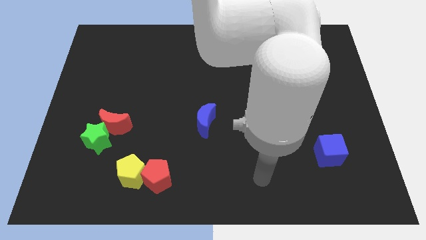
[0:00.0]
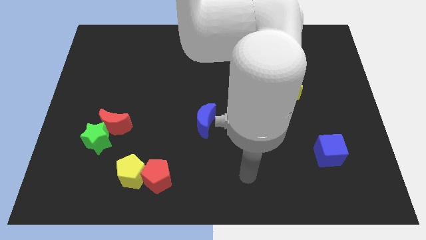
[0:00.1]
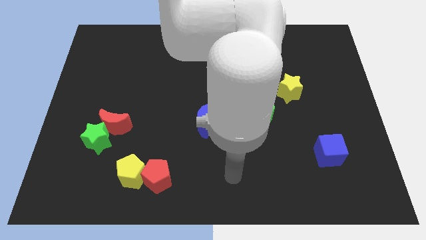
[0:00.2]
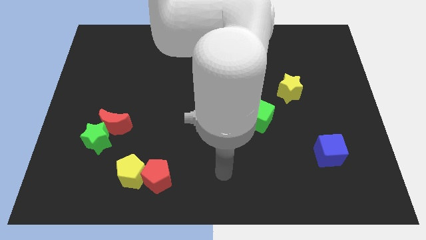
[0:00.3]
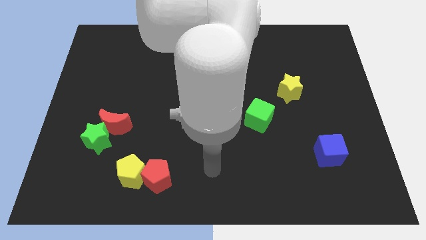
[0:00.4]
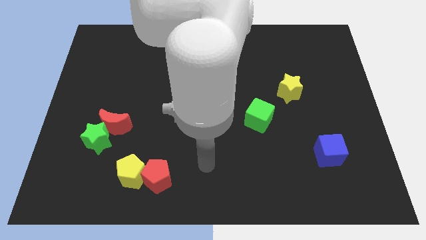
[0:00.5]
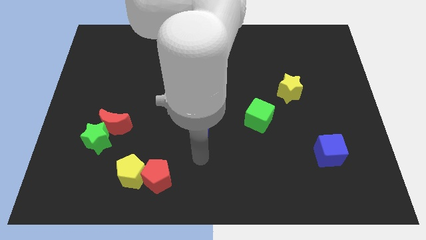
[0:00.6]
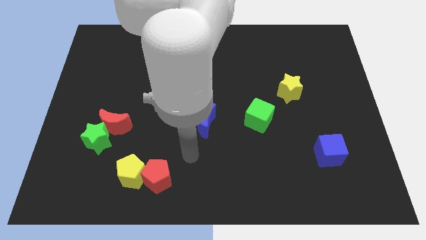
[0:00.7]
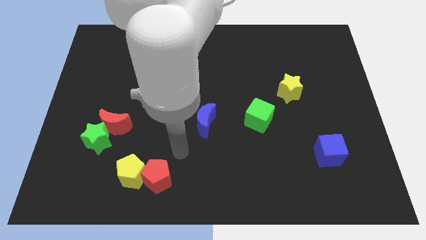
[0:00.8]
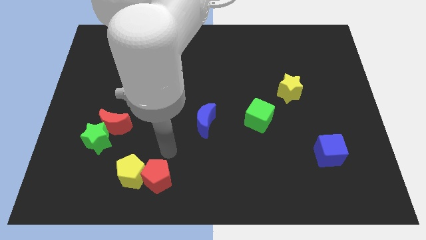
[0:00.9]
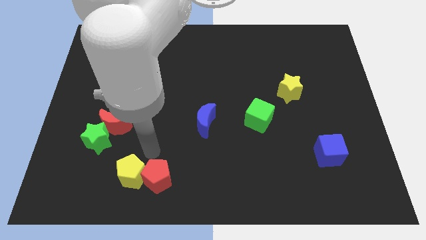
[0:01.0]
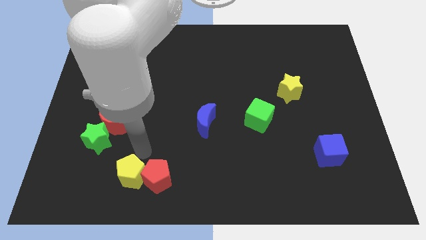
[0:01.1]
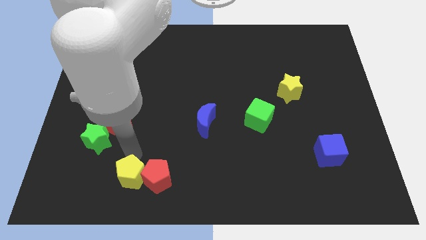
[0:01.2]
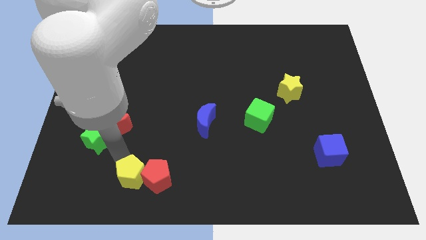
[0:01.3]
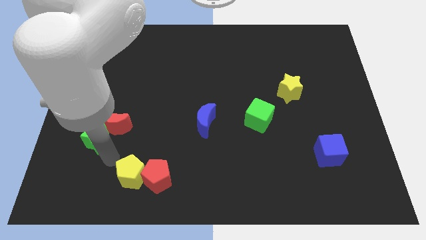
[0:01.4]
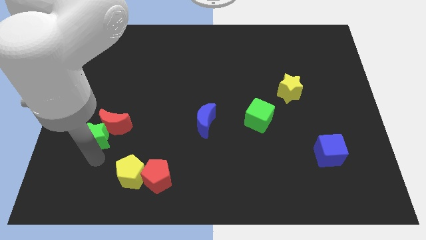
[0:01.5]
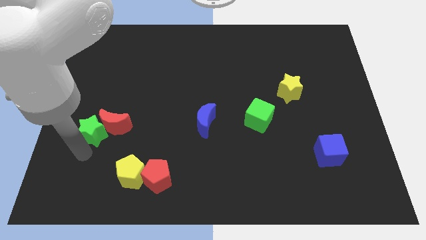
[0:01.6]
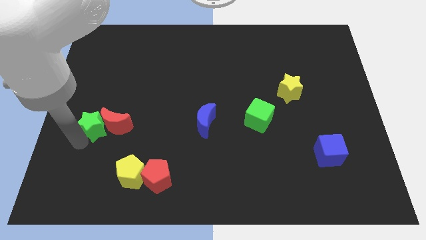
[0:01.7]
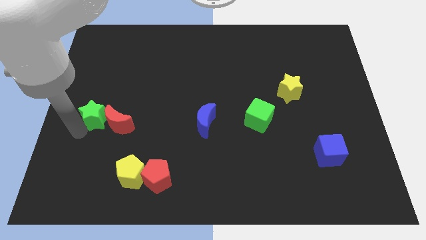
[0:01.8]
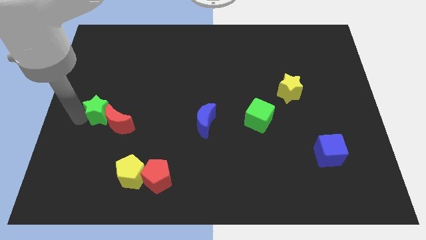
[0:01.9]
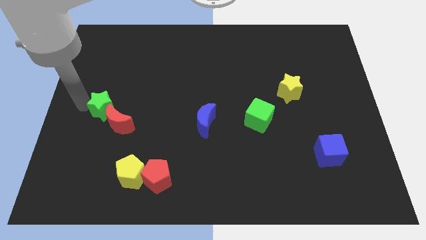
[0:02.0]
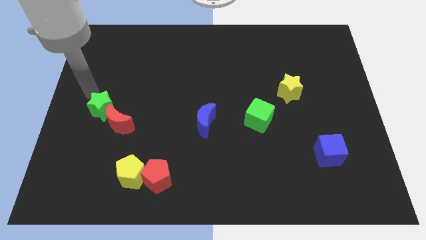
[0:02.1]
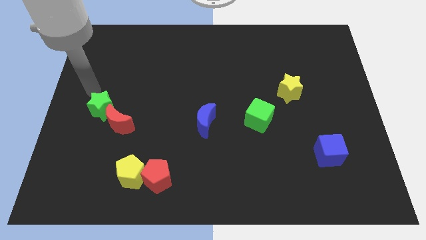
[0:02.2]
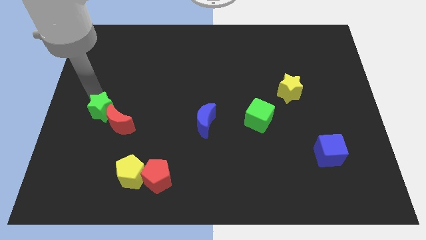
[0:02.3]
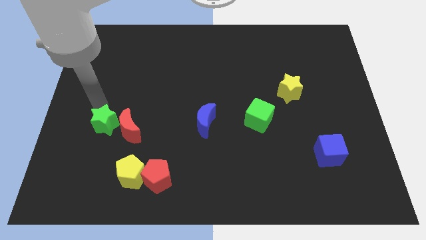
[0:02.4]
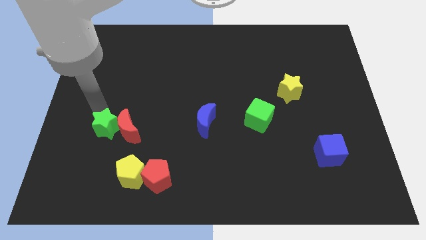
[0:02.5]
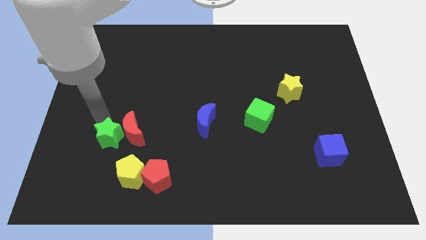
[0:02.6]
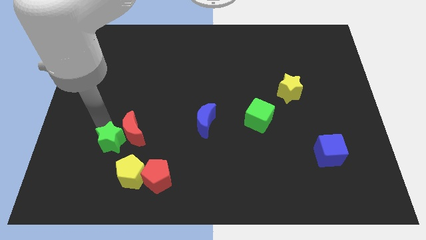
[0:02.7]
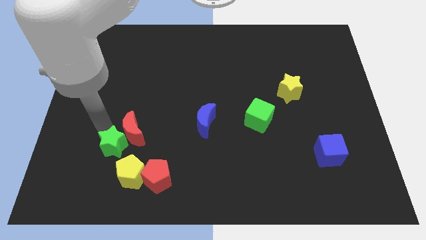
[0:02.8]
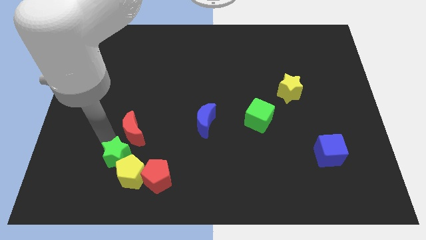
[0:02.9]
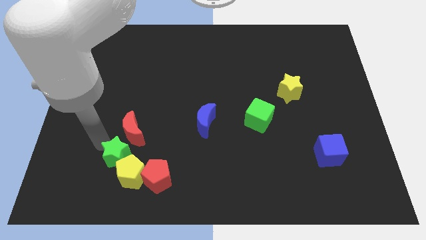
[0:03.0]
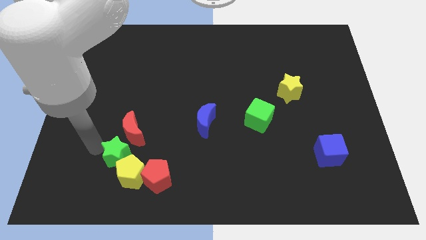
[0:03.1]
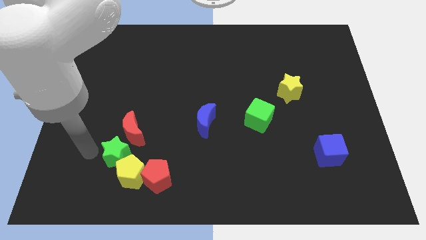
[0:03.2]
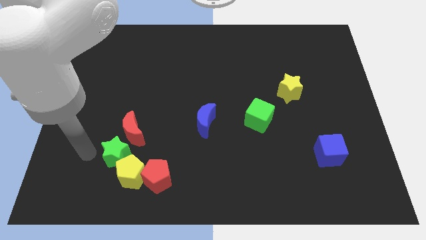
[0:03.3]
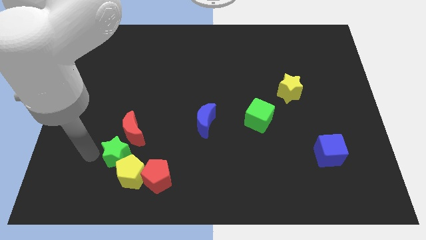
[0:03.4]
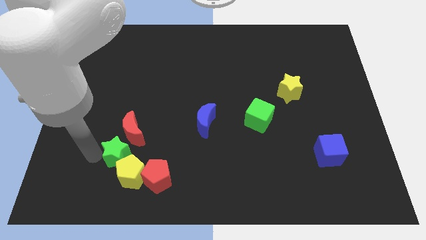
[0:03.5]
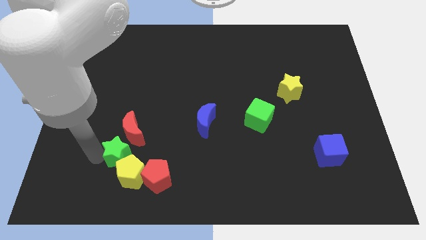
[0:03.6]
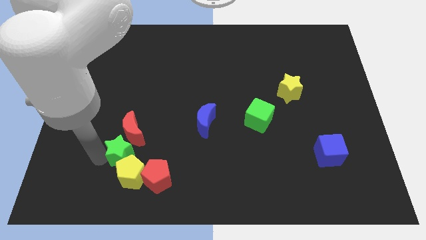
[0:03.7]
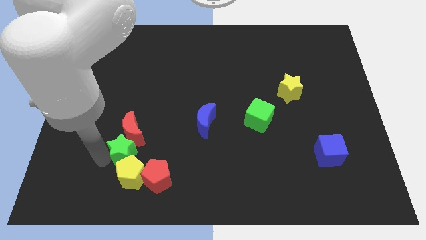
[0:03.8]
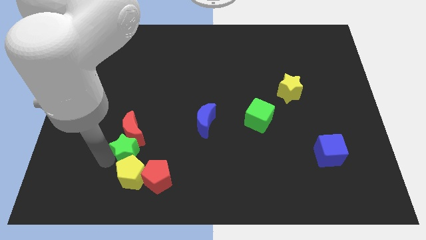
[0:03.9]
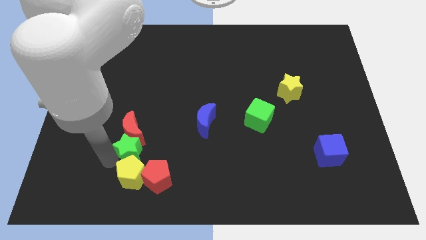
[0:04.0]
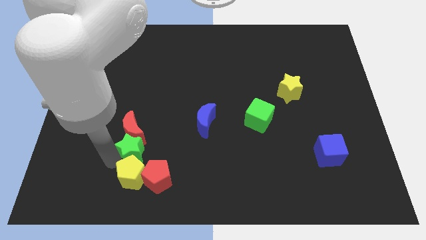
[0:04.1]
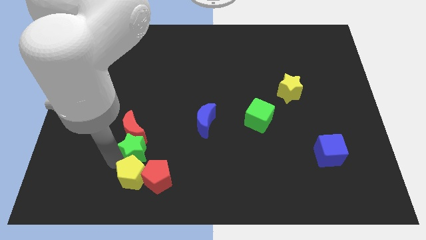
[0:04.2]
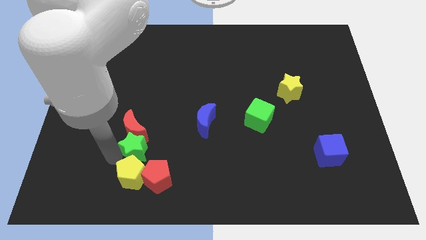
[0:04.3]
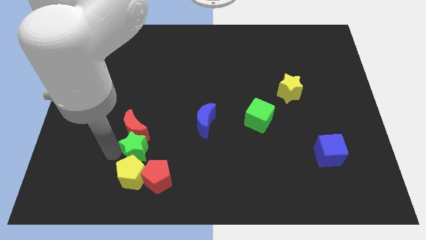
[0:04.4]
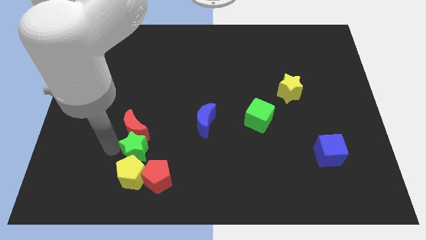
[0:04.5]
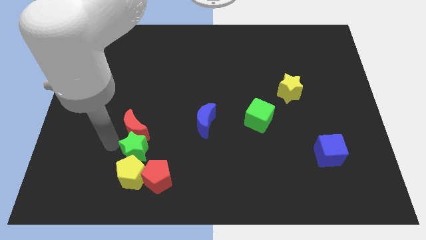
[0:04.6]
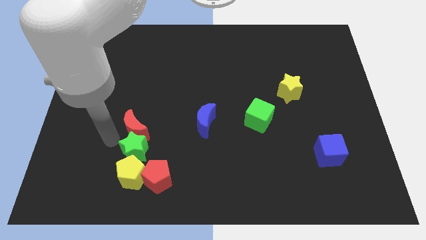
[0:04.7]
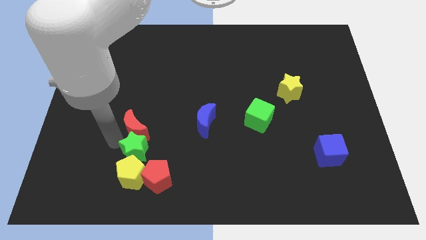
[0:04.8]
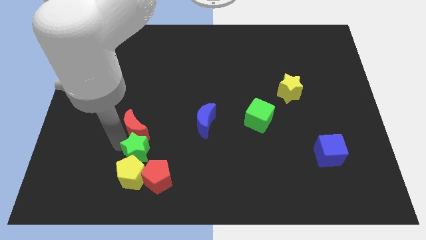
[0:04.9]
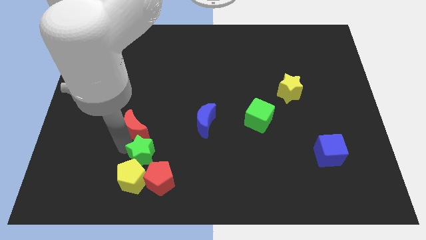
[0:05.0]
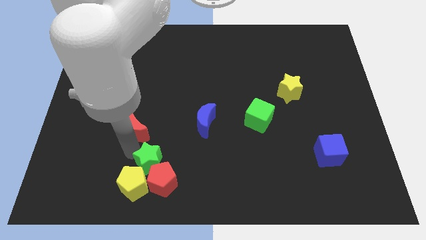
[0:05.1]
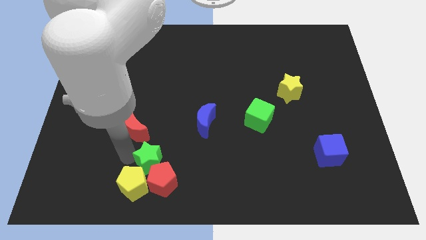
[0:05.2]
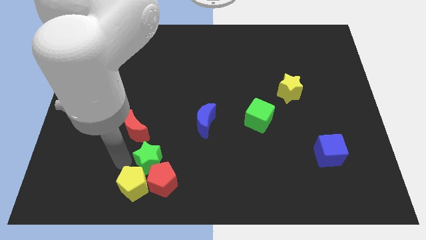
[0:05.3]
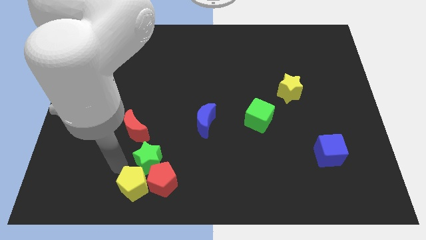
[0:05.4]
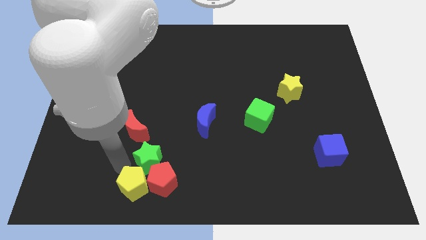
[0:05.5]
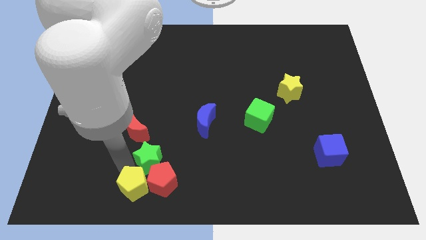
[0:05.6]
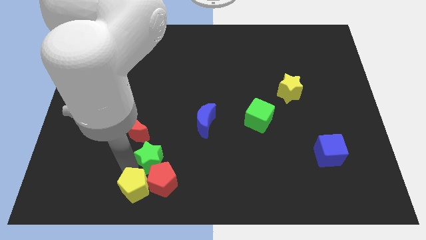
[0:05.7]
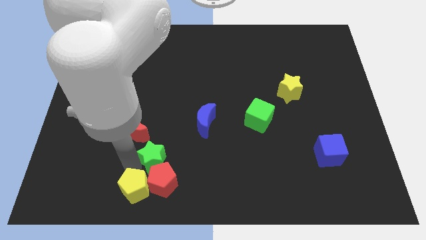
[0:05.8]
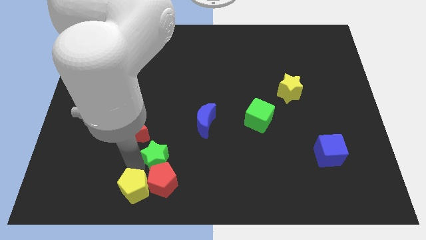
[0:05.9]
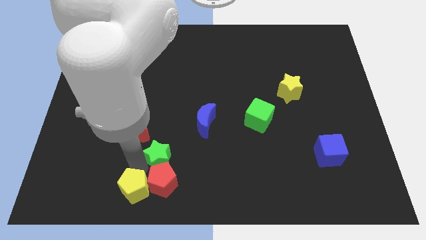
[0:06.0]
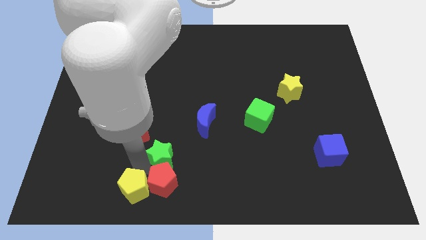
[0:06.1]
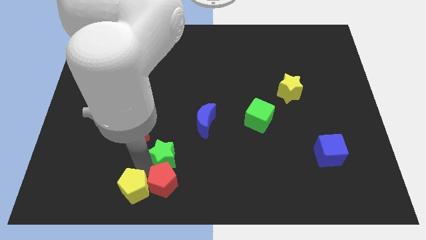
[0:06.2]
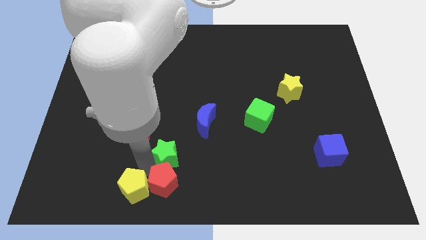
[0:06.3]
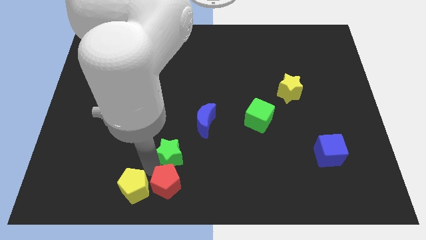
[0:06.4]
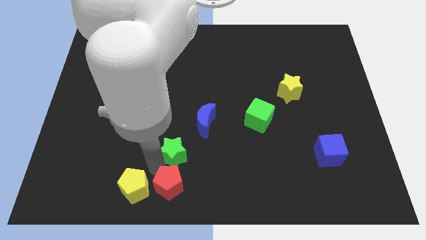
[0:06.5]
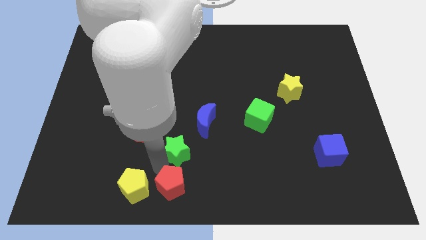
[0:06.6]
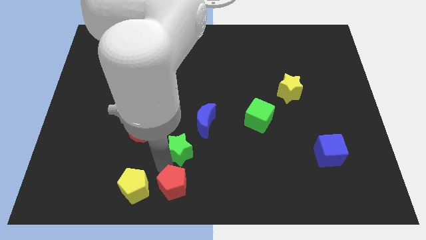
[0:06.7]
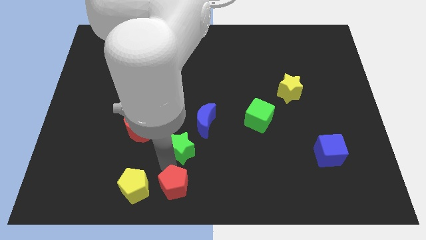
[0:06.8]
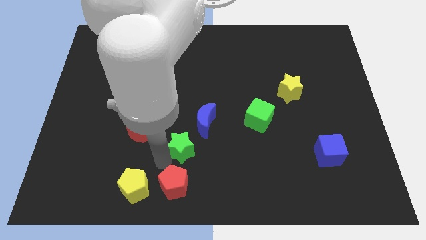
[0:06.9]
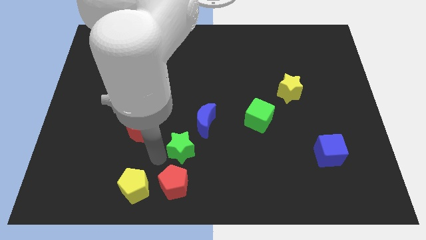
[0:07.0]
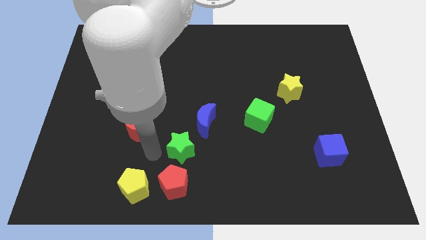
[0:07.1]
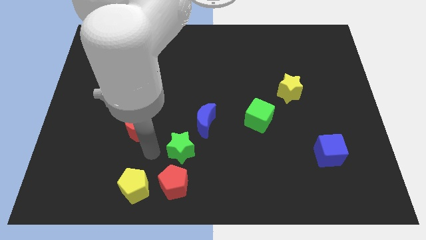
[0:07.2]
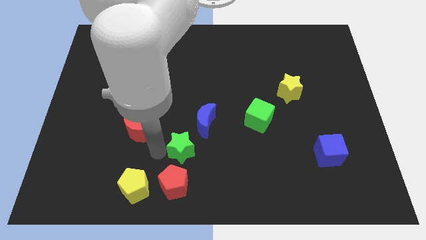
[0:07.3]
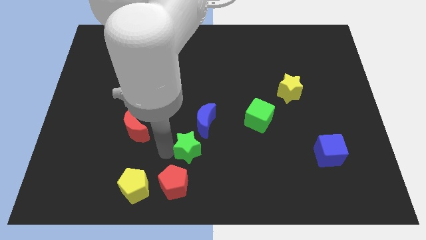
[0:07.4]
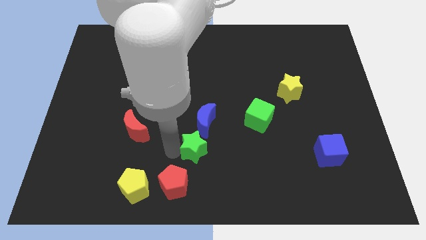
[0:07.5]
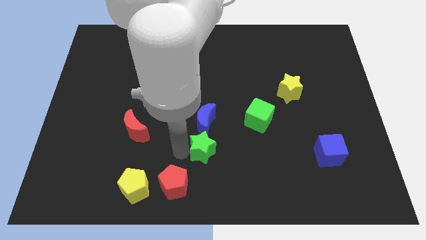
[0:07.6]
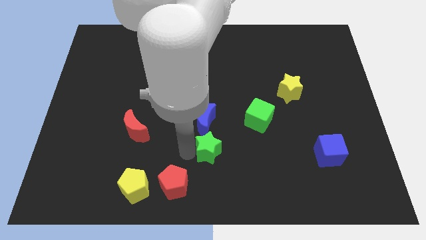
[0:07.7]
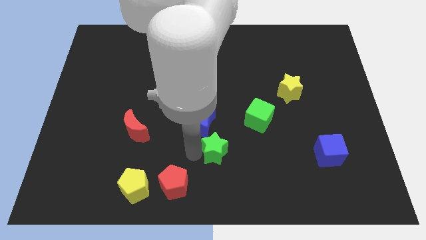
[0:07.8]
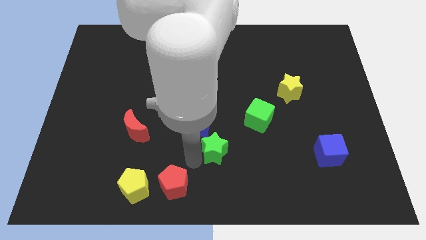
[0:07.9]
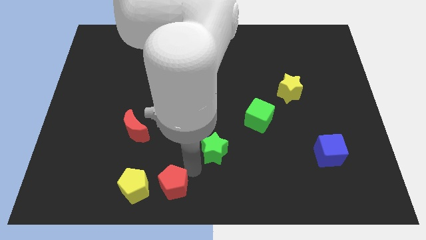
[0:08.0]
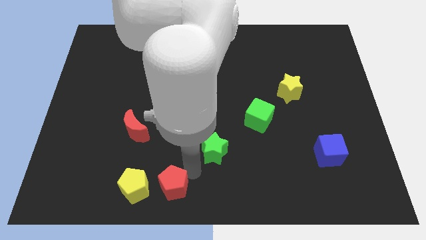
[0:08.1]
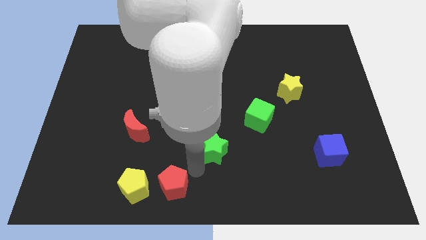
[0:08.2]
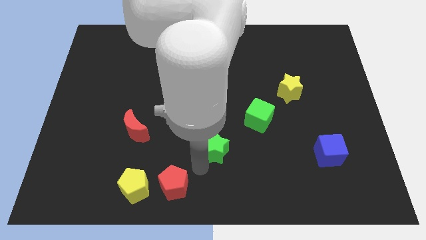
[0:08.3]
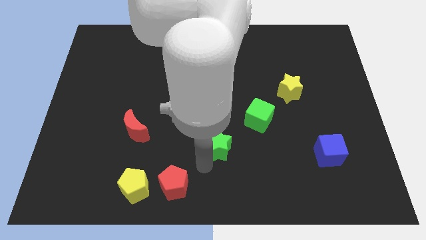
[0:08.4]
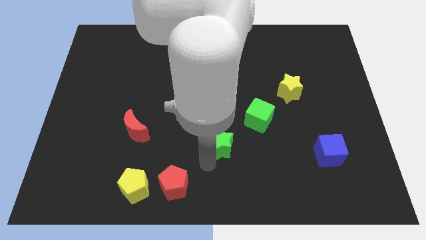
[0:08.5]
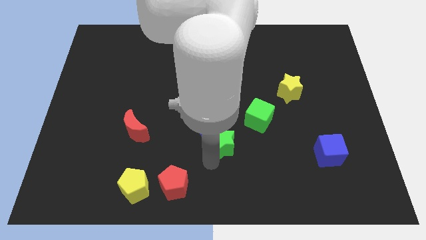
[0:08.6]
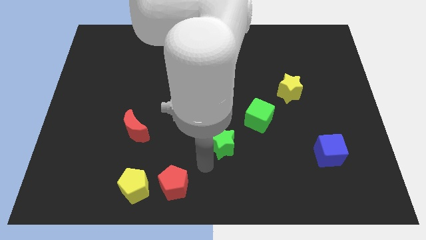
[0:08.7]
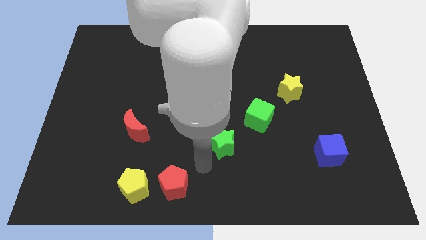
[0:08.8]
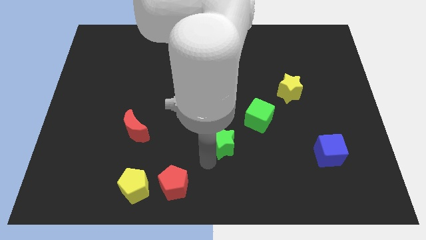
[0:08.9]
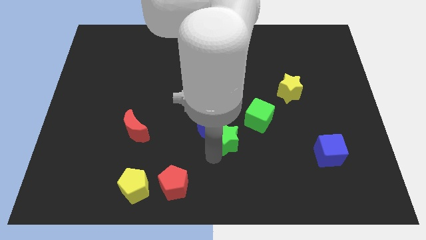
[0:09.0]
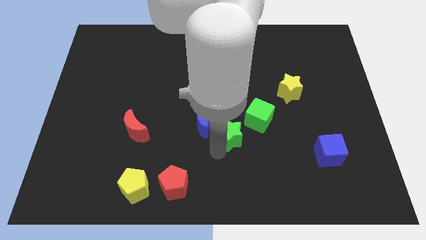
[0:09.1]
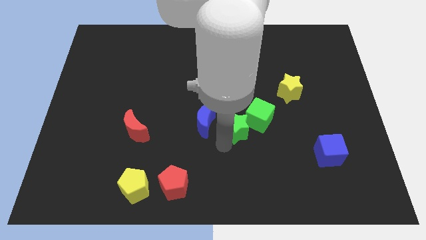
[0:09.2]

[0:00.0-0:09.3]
move the green star towards the green cube
